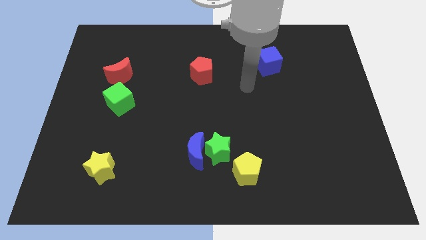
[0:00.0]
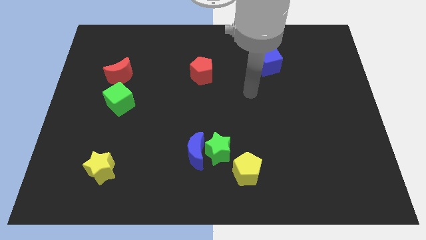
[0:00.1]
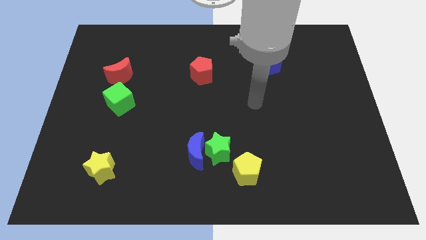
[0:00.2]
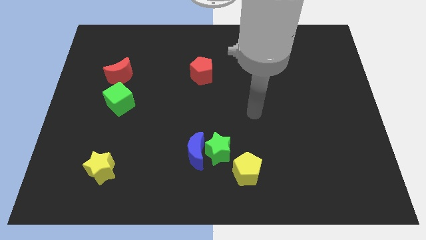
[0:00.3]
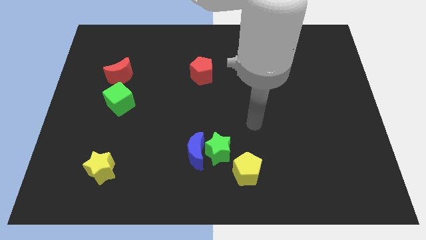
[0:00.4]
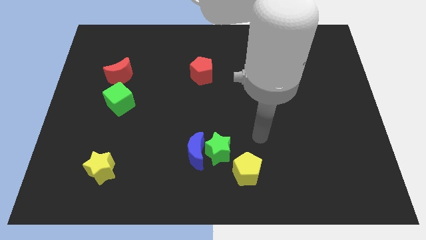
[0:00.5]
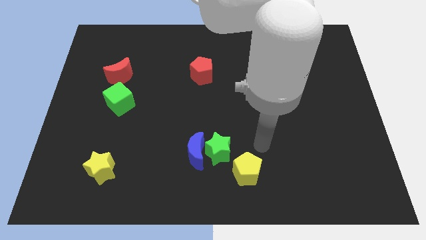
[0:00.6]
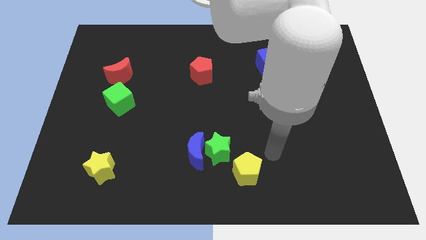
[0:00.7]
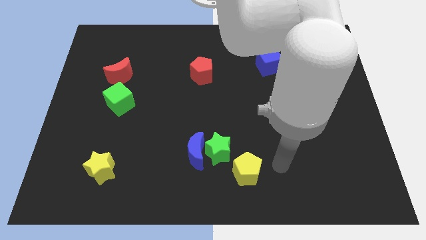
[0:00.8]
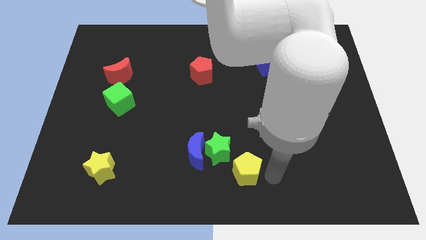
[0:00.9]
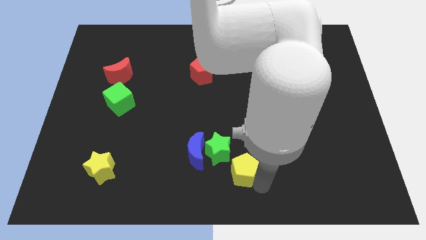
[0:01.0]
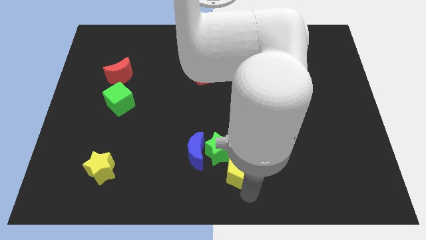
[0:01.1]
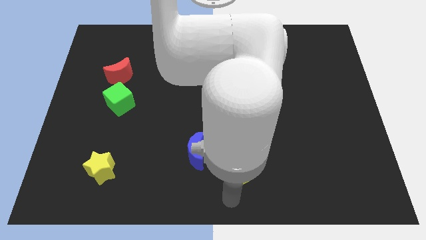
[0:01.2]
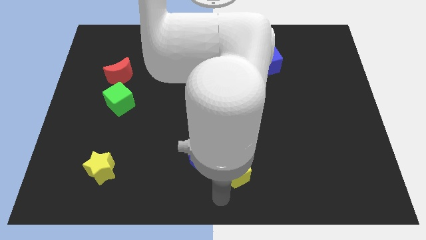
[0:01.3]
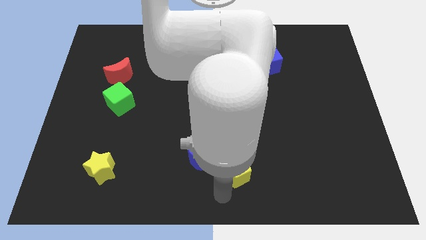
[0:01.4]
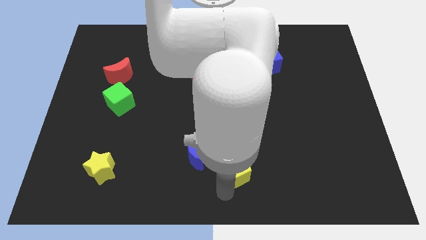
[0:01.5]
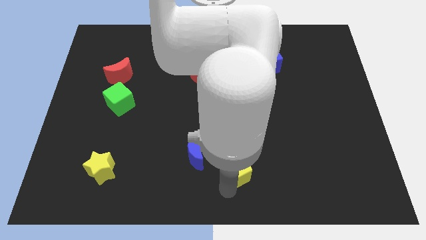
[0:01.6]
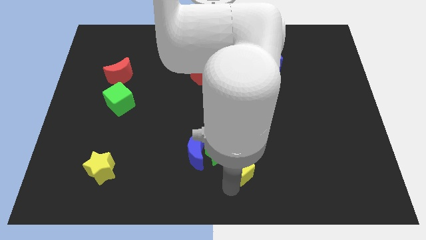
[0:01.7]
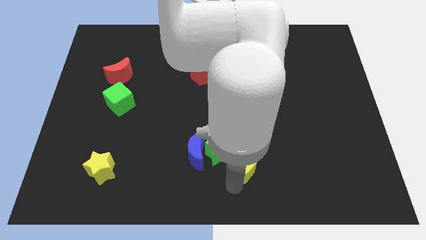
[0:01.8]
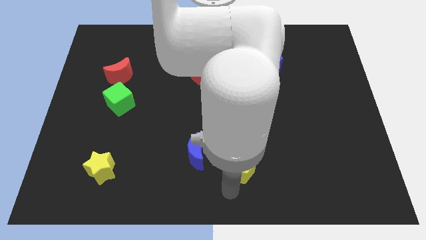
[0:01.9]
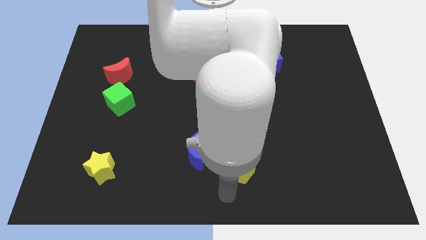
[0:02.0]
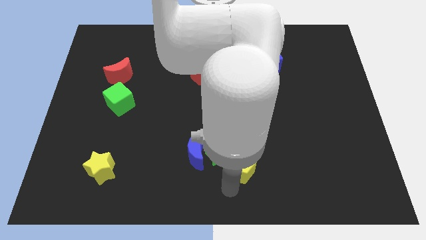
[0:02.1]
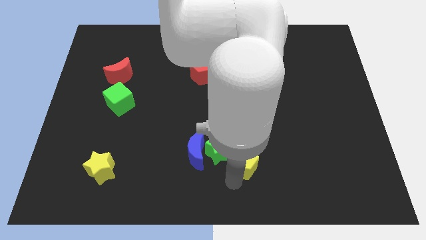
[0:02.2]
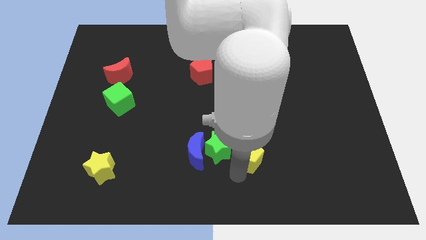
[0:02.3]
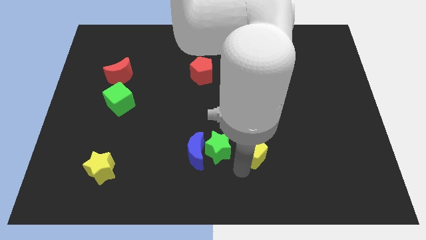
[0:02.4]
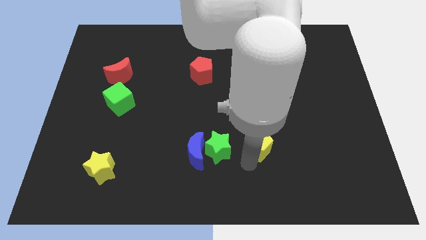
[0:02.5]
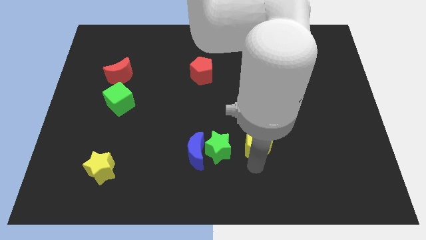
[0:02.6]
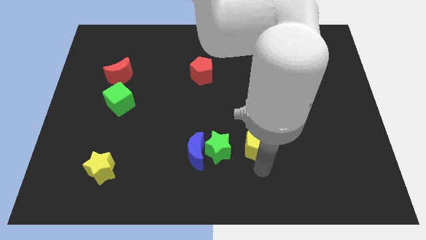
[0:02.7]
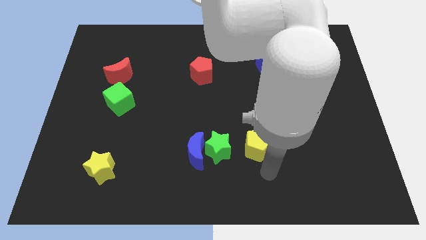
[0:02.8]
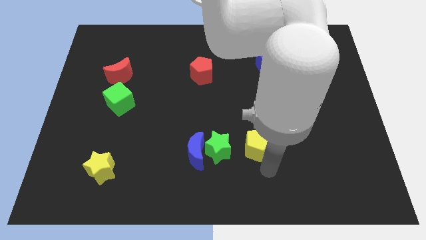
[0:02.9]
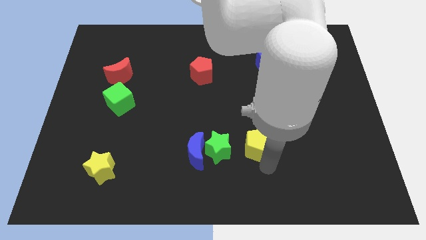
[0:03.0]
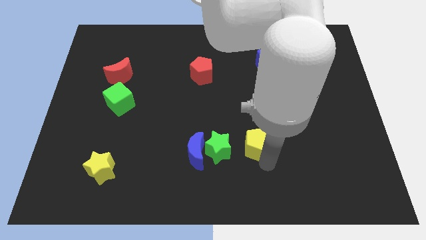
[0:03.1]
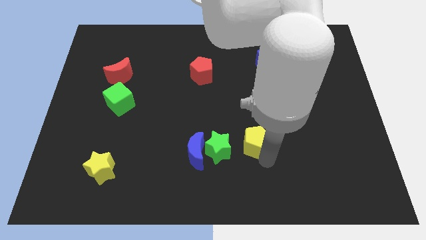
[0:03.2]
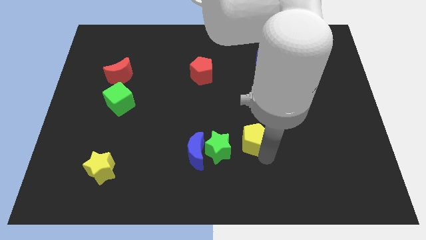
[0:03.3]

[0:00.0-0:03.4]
move the yellow pentagon a bit upwards

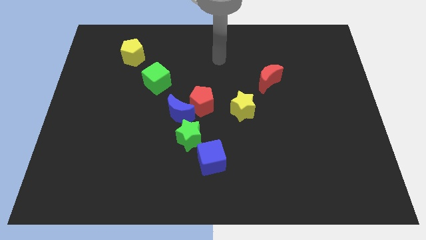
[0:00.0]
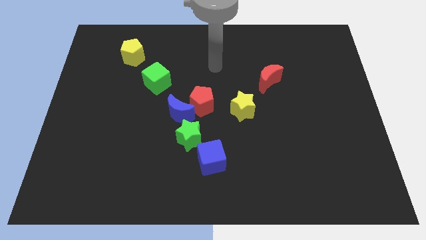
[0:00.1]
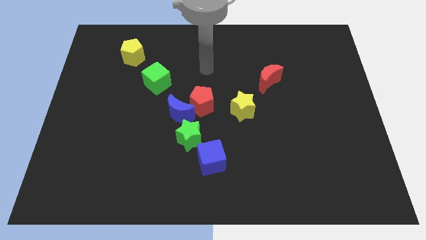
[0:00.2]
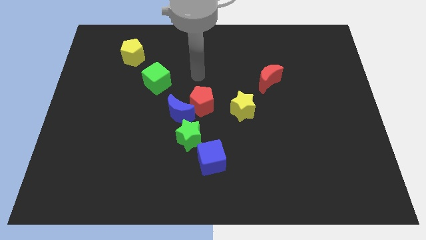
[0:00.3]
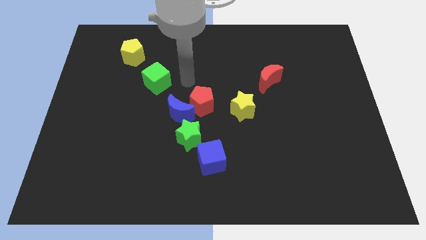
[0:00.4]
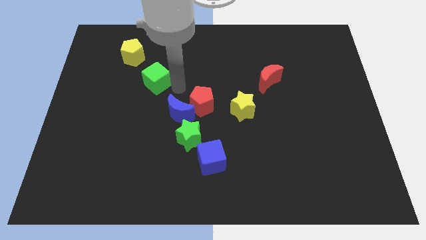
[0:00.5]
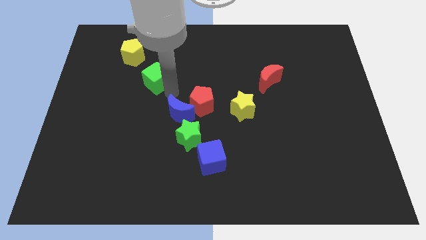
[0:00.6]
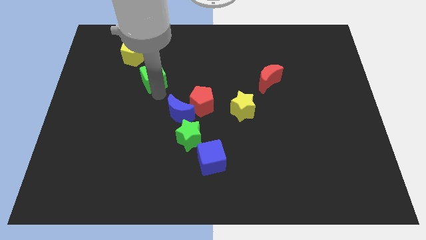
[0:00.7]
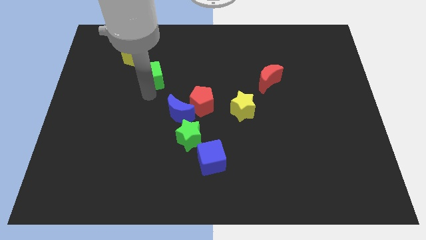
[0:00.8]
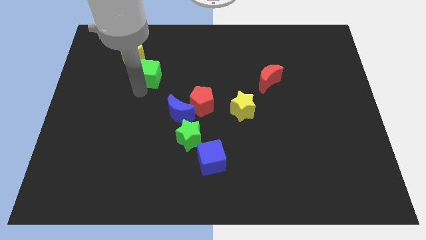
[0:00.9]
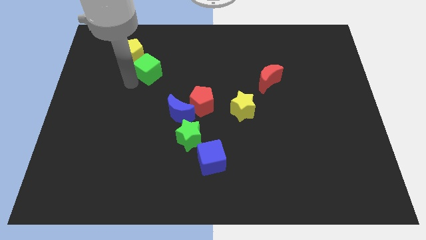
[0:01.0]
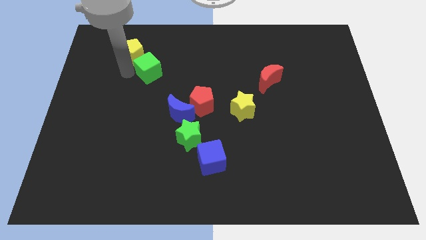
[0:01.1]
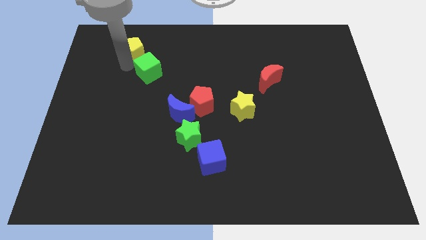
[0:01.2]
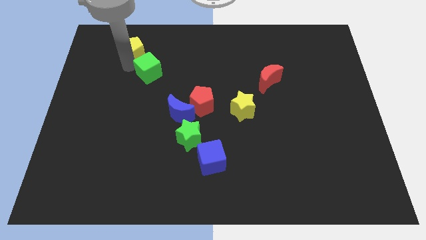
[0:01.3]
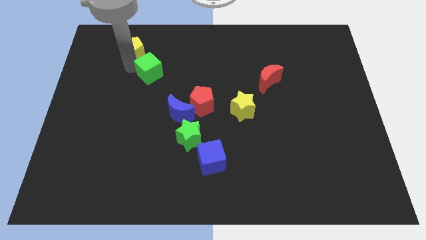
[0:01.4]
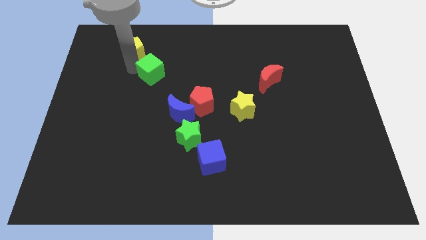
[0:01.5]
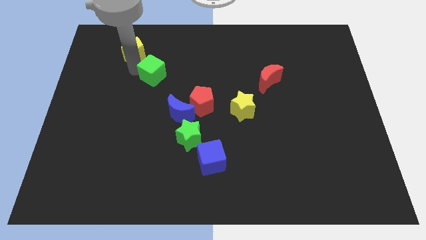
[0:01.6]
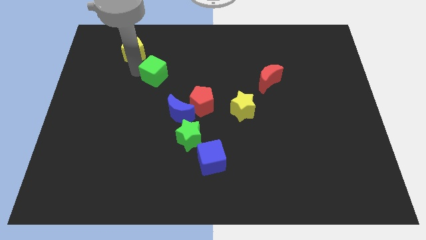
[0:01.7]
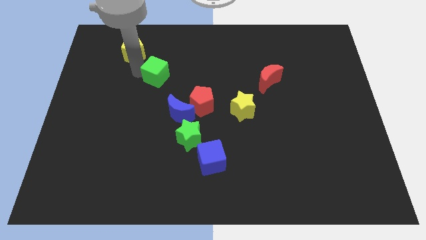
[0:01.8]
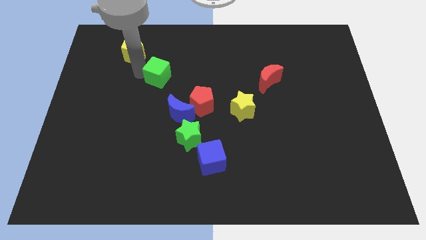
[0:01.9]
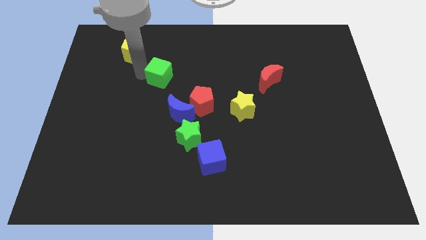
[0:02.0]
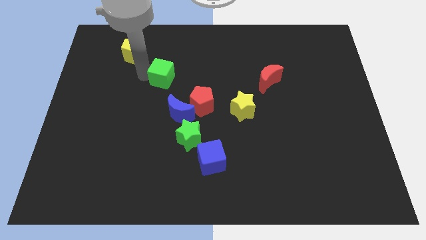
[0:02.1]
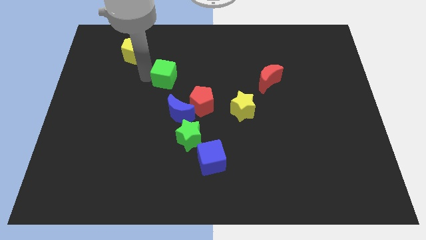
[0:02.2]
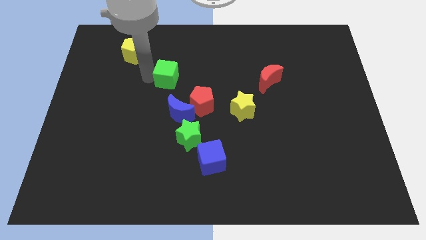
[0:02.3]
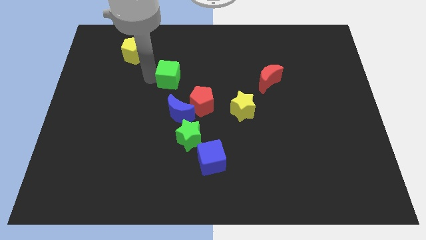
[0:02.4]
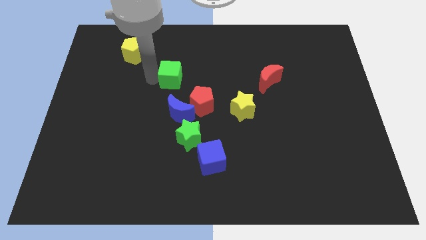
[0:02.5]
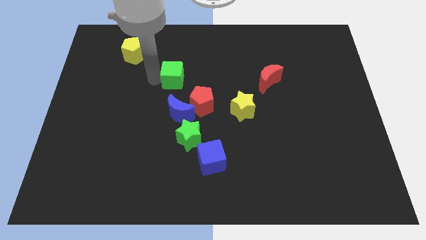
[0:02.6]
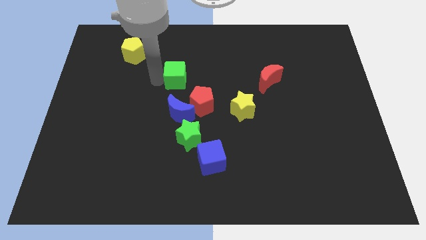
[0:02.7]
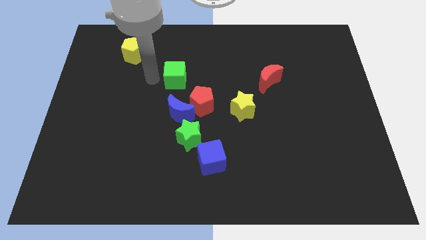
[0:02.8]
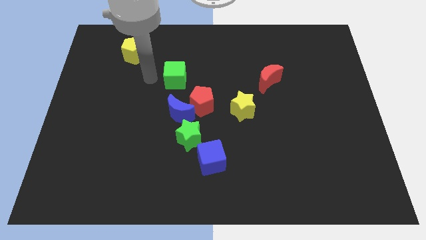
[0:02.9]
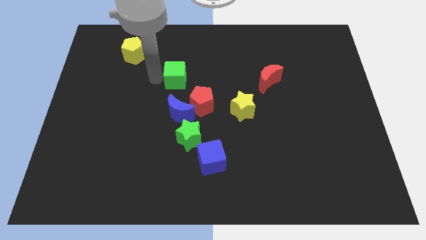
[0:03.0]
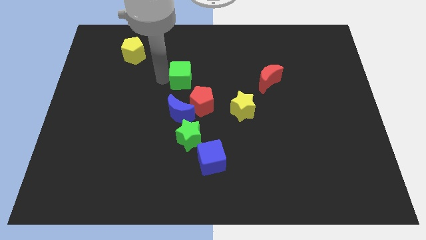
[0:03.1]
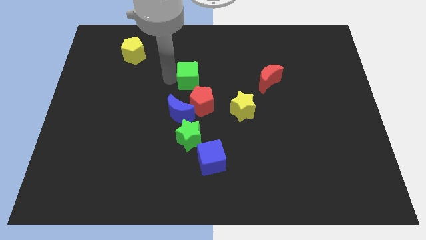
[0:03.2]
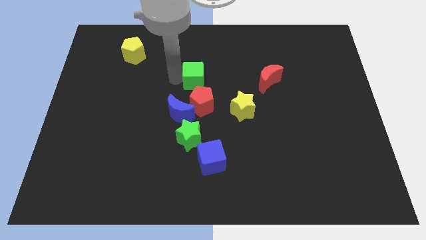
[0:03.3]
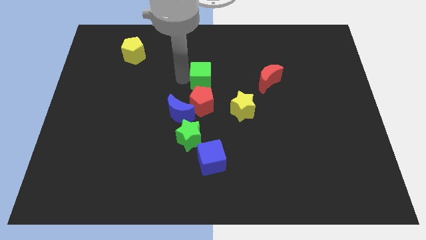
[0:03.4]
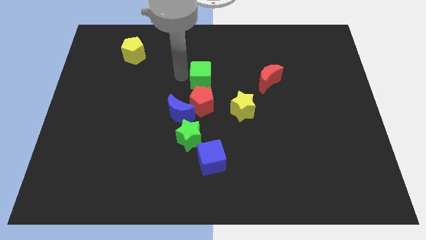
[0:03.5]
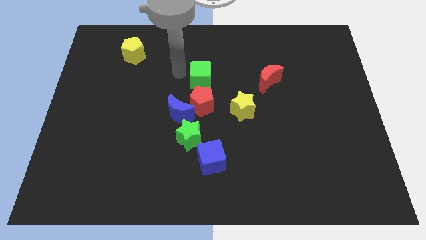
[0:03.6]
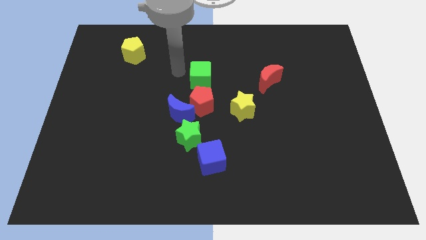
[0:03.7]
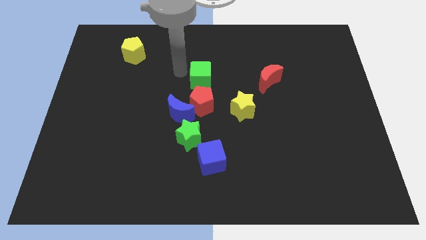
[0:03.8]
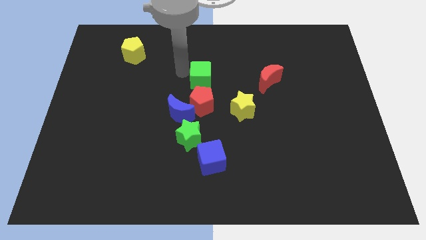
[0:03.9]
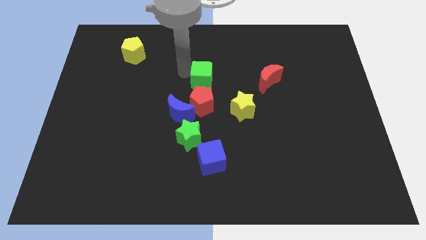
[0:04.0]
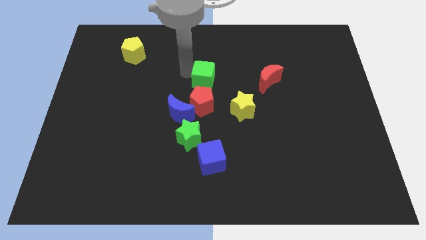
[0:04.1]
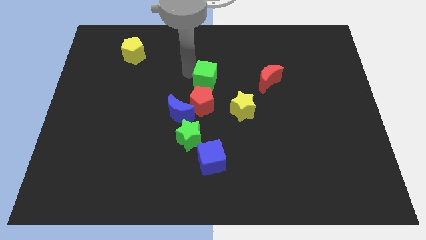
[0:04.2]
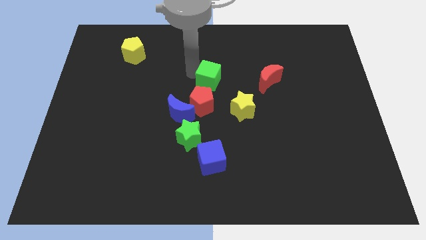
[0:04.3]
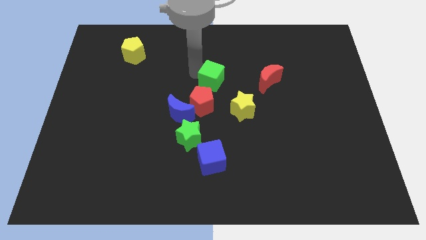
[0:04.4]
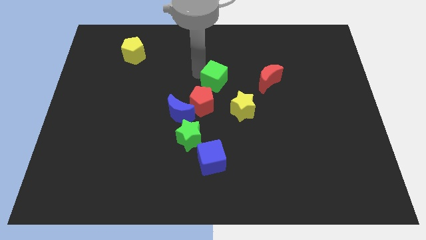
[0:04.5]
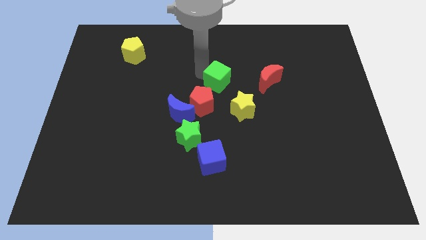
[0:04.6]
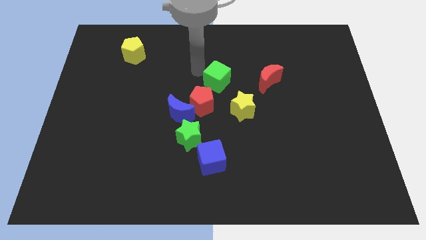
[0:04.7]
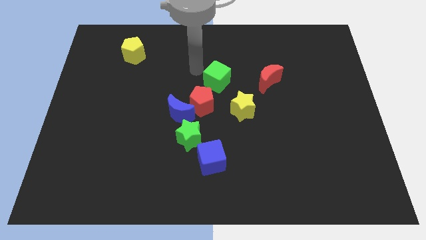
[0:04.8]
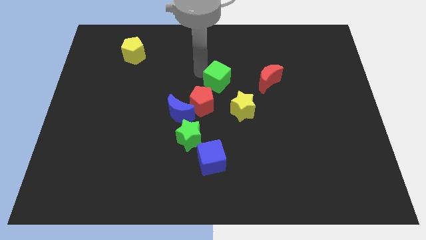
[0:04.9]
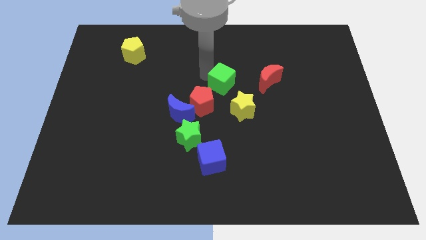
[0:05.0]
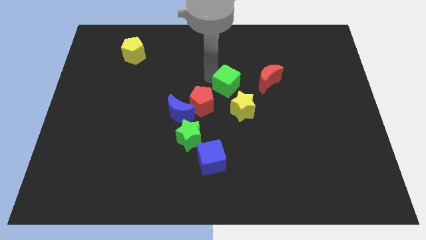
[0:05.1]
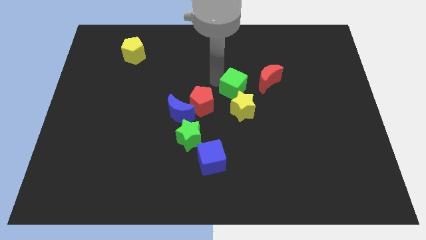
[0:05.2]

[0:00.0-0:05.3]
push the green cube somewhat diagonally downwards and right
